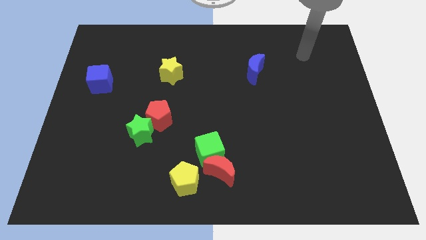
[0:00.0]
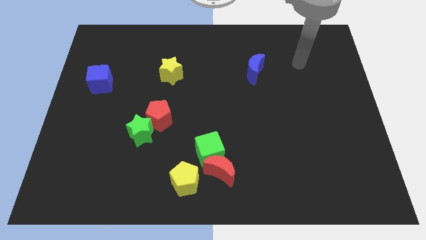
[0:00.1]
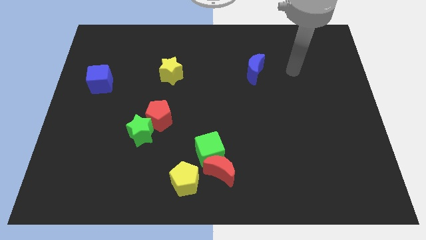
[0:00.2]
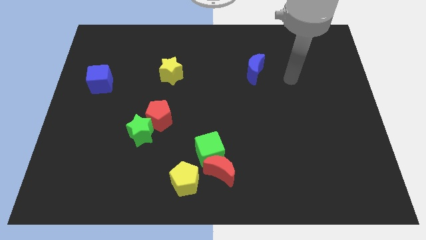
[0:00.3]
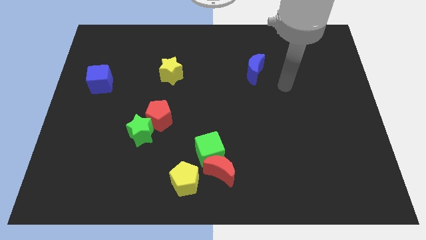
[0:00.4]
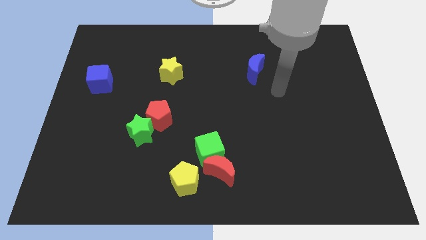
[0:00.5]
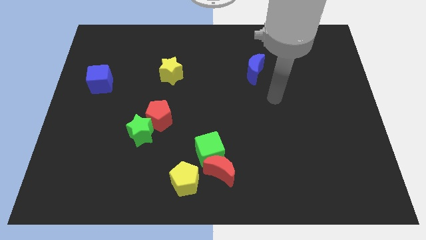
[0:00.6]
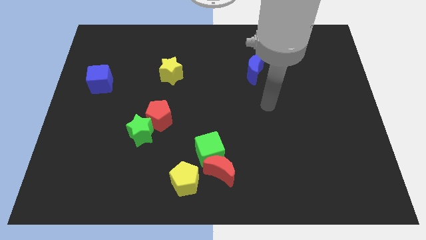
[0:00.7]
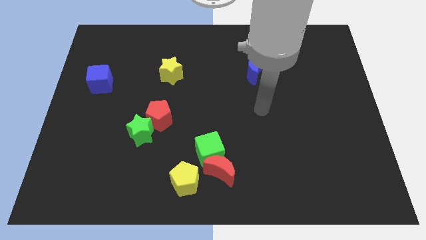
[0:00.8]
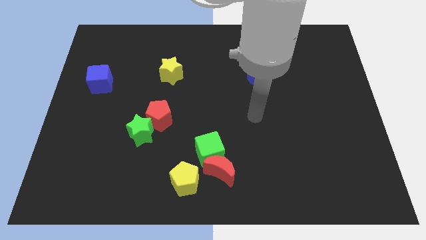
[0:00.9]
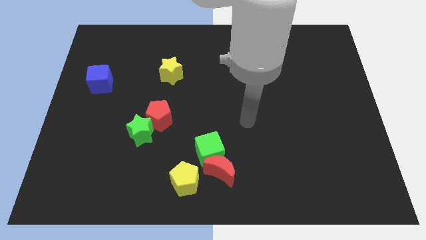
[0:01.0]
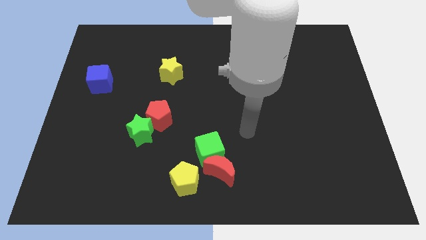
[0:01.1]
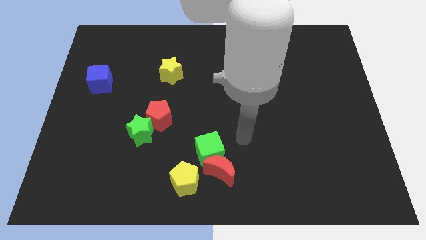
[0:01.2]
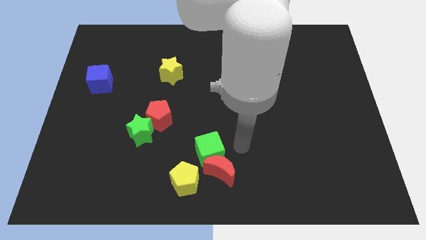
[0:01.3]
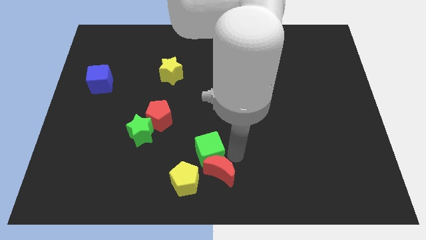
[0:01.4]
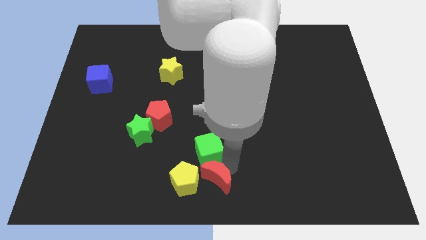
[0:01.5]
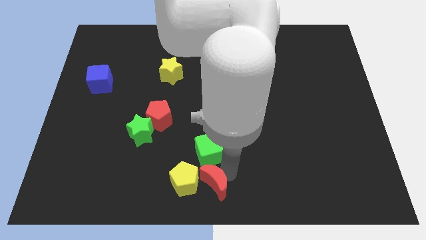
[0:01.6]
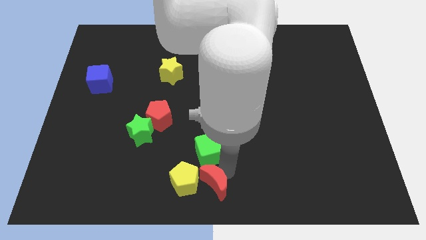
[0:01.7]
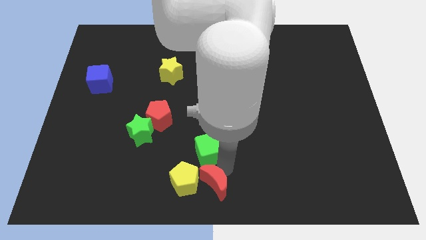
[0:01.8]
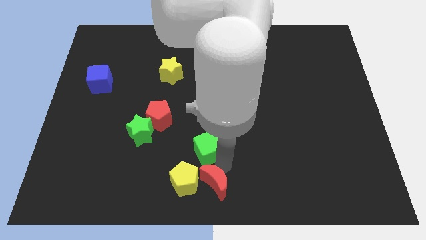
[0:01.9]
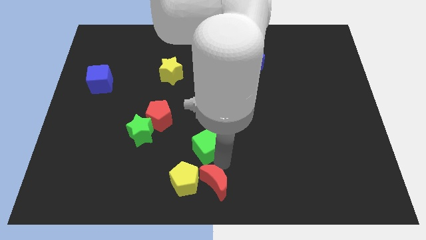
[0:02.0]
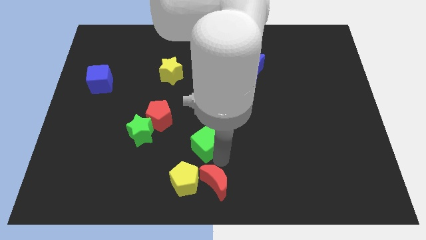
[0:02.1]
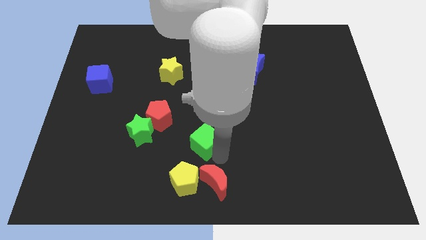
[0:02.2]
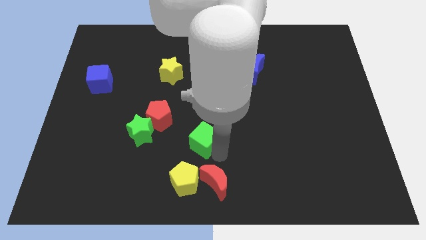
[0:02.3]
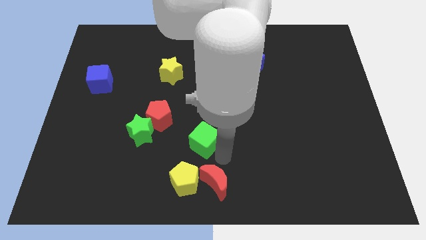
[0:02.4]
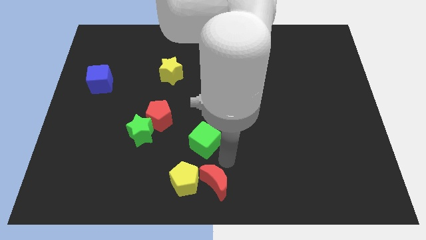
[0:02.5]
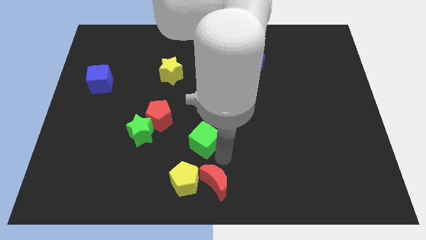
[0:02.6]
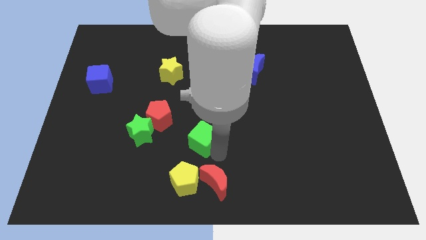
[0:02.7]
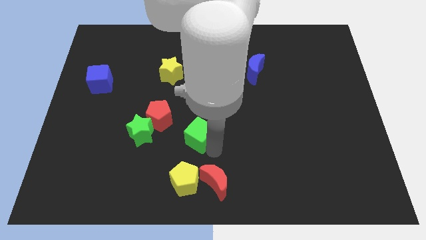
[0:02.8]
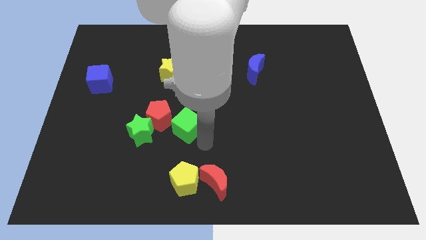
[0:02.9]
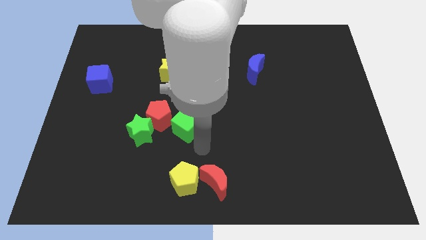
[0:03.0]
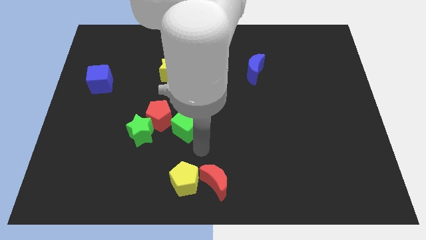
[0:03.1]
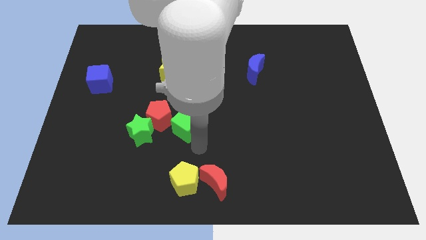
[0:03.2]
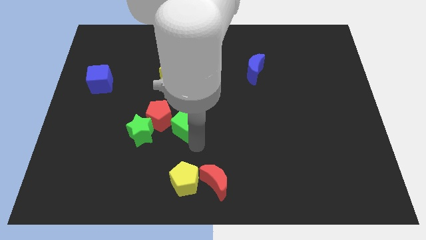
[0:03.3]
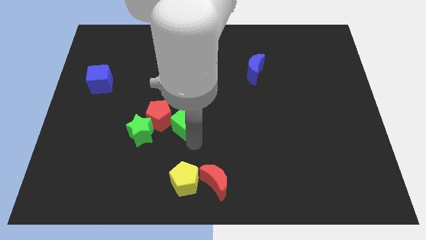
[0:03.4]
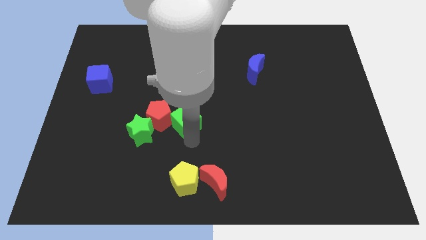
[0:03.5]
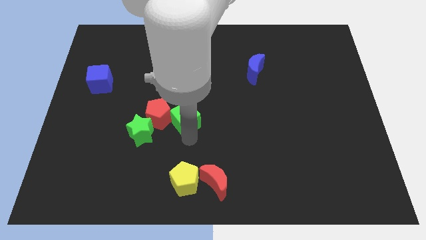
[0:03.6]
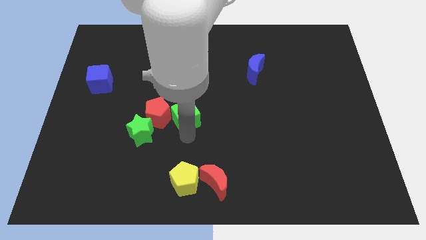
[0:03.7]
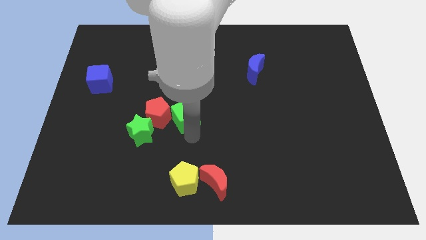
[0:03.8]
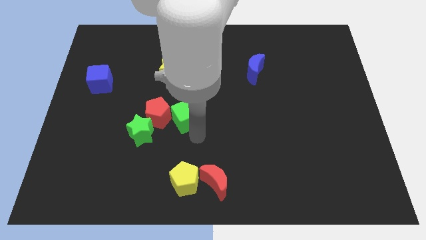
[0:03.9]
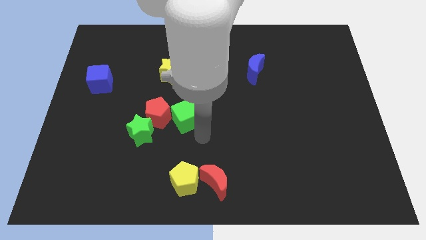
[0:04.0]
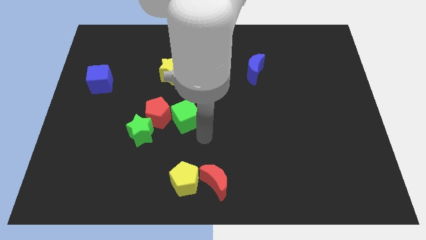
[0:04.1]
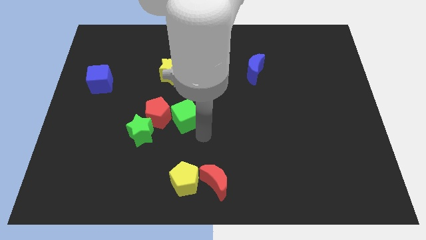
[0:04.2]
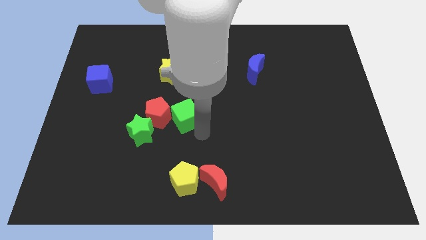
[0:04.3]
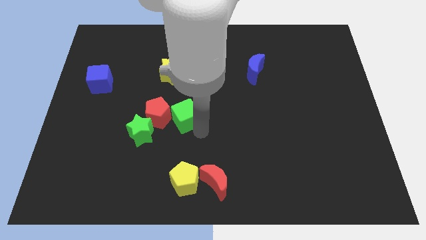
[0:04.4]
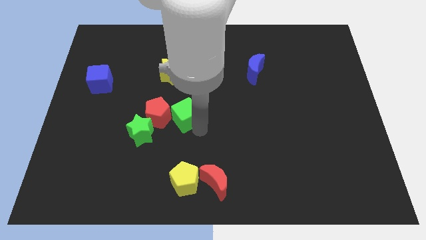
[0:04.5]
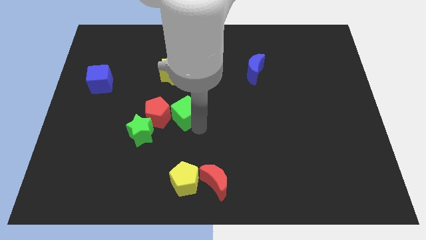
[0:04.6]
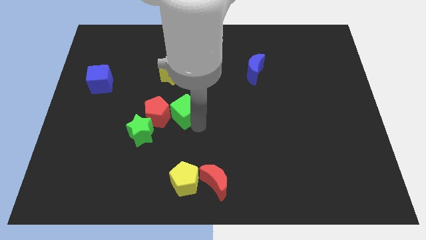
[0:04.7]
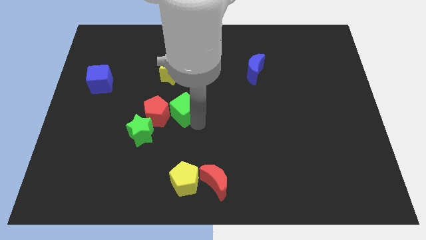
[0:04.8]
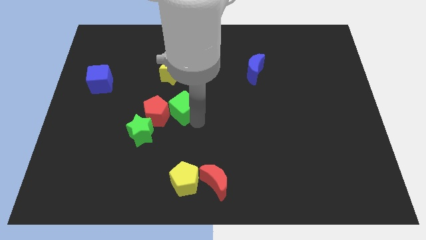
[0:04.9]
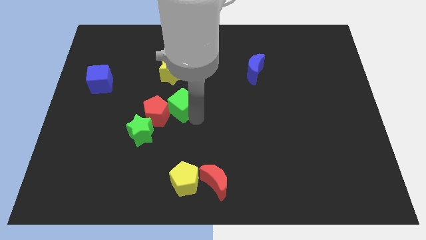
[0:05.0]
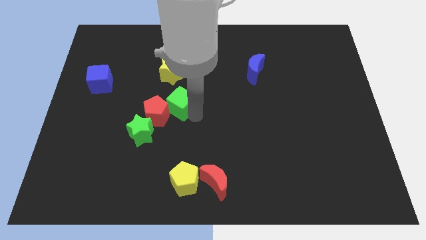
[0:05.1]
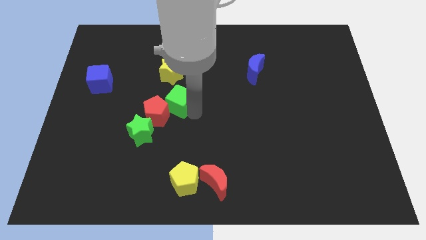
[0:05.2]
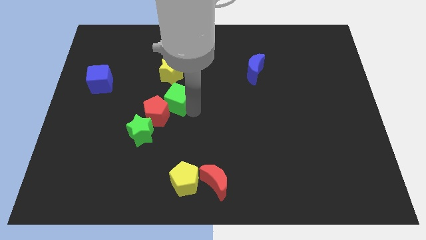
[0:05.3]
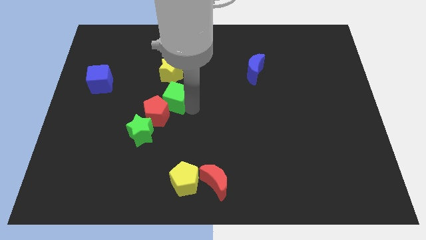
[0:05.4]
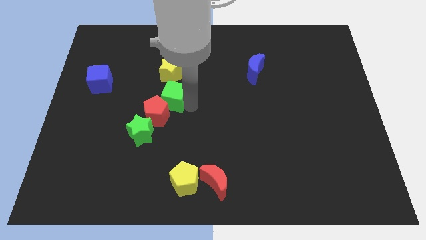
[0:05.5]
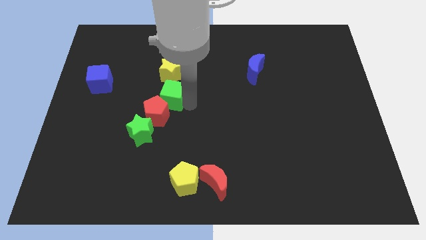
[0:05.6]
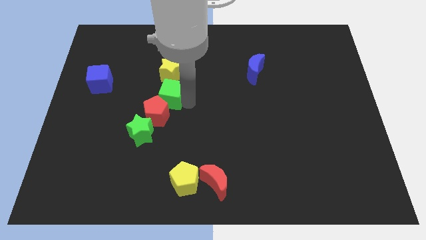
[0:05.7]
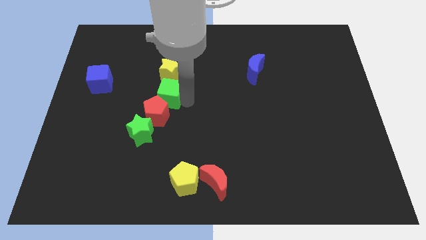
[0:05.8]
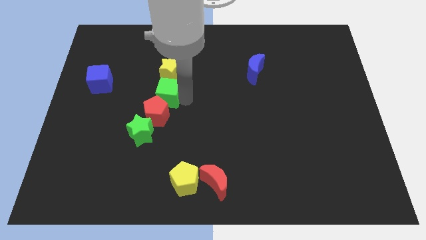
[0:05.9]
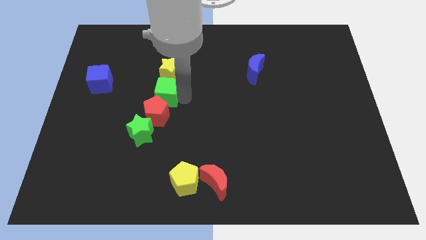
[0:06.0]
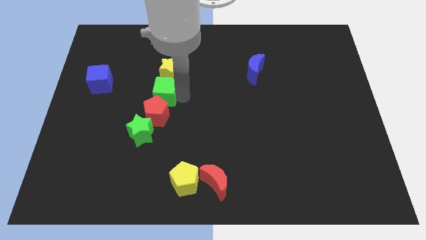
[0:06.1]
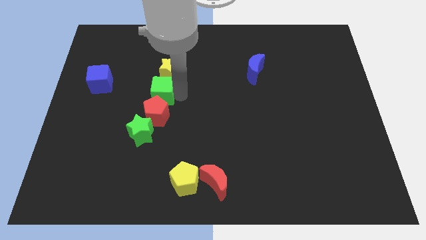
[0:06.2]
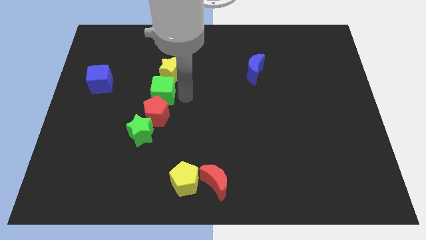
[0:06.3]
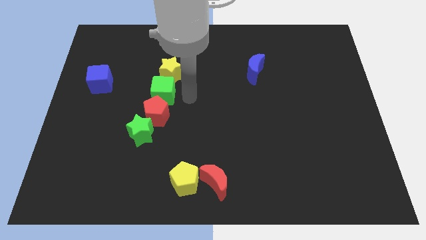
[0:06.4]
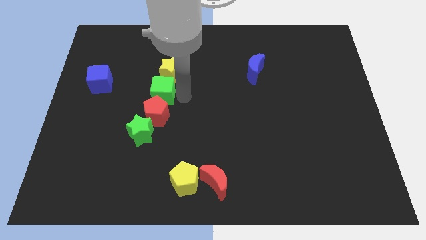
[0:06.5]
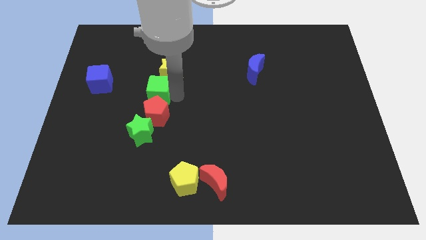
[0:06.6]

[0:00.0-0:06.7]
move the green cube up and to the left diagonally

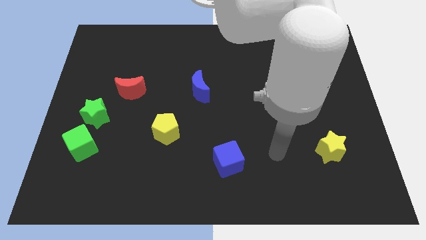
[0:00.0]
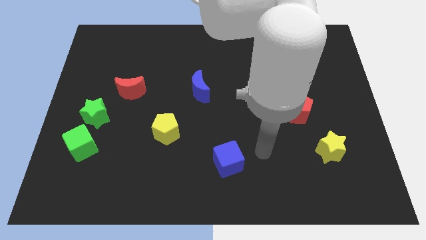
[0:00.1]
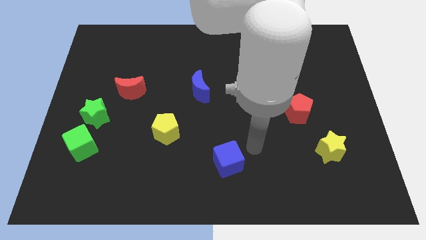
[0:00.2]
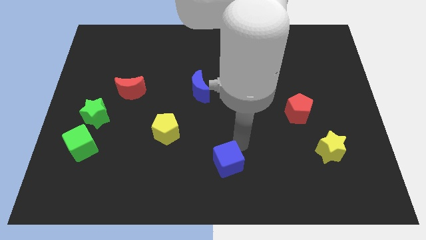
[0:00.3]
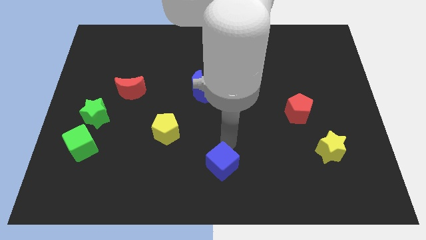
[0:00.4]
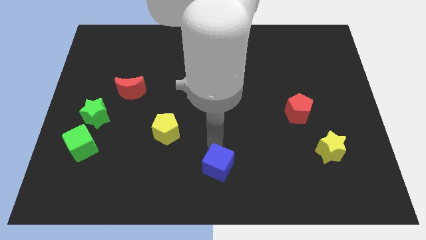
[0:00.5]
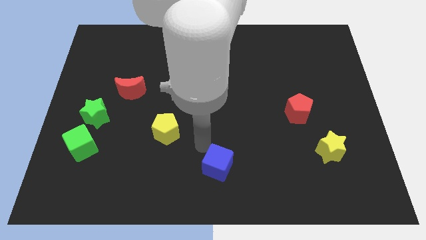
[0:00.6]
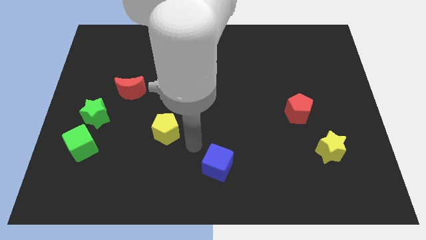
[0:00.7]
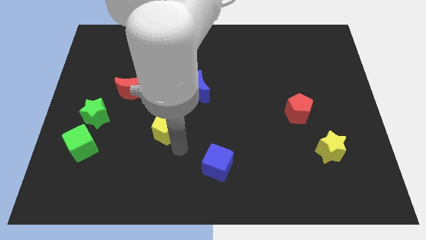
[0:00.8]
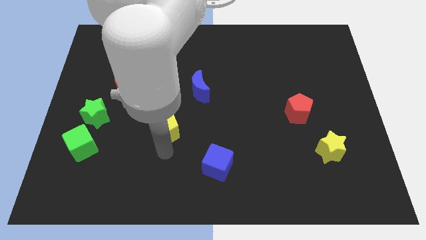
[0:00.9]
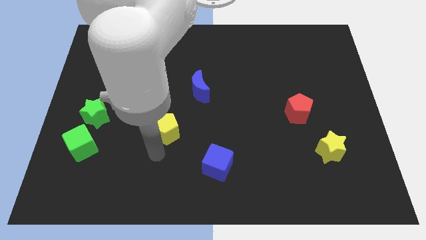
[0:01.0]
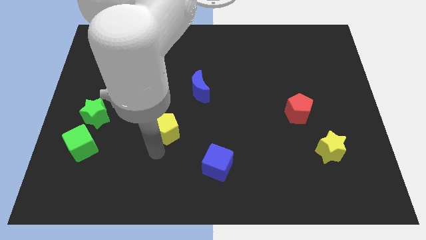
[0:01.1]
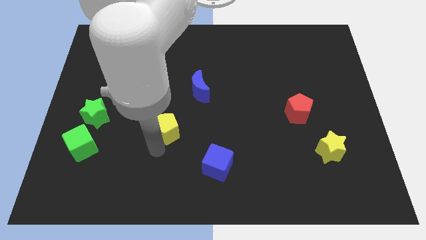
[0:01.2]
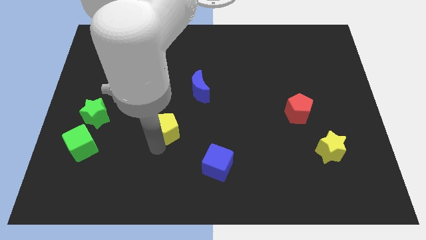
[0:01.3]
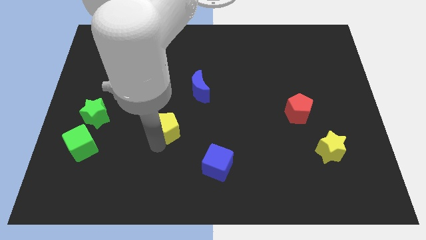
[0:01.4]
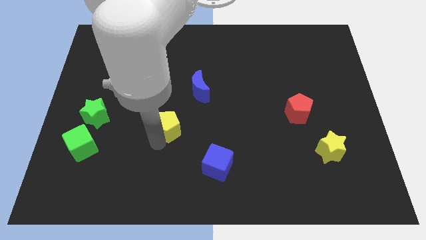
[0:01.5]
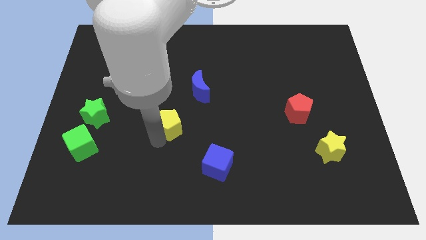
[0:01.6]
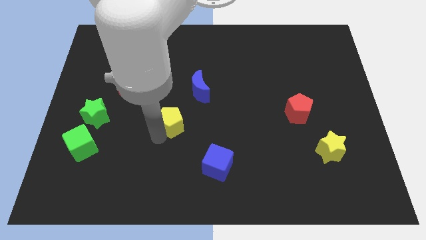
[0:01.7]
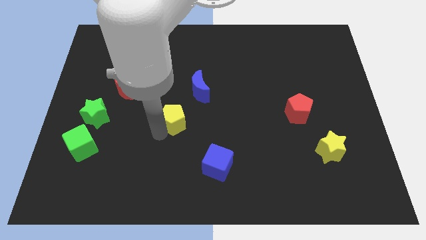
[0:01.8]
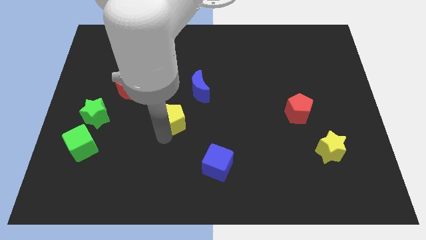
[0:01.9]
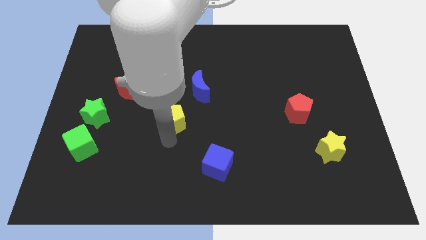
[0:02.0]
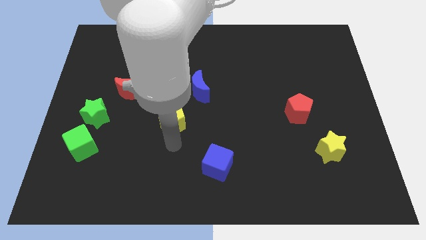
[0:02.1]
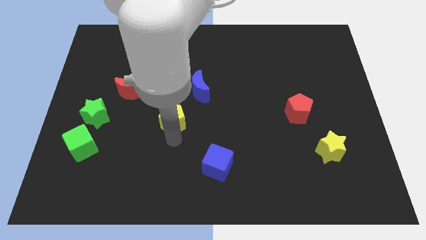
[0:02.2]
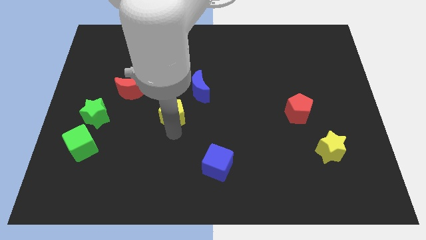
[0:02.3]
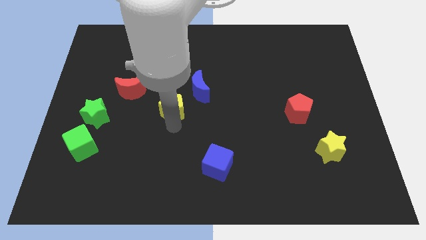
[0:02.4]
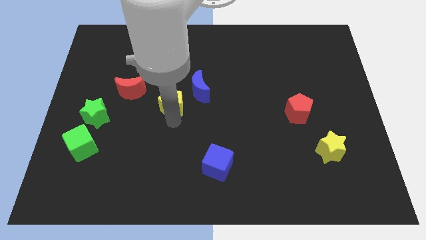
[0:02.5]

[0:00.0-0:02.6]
slightly move the yellow pentagon upwards
